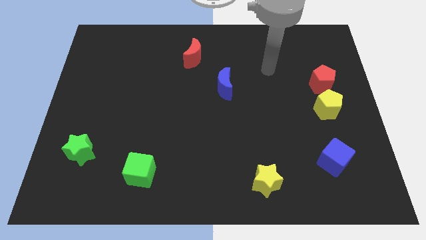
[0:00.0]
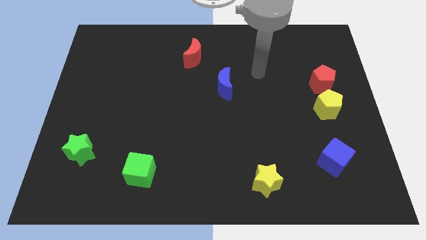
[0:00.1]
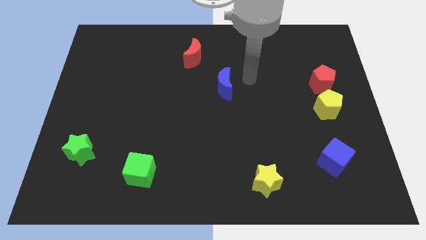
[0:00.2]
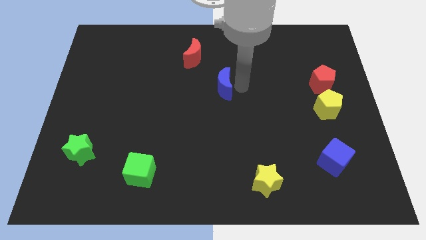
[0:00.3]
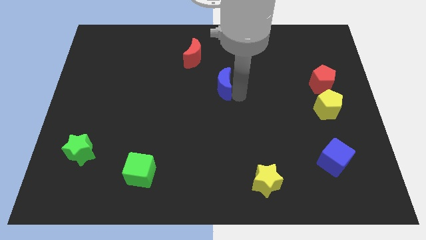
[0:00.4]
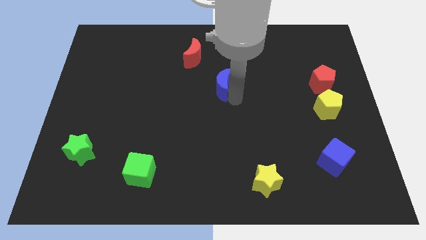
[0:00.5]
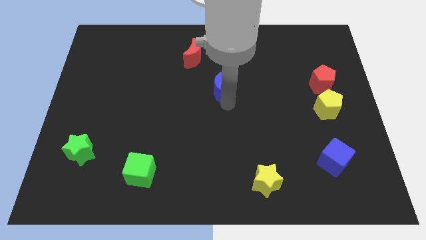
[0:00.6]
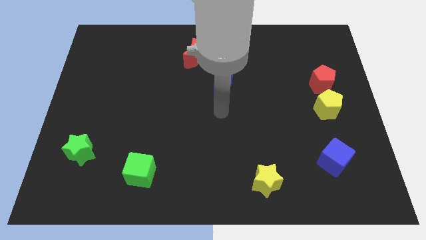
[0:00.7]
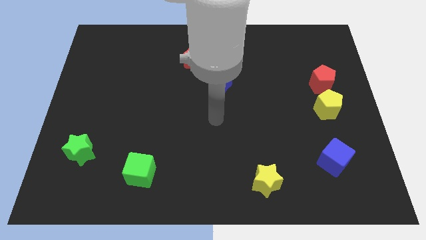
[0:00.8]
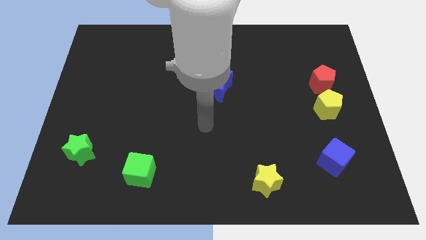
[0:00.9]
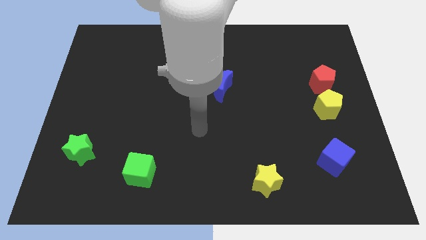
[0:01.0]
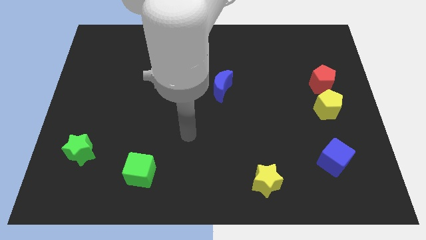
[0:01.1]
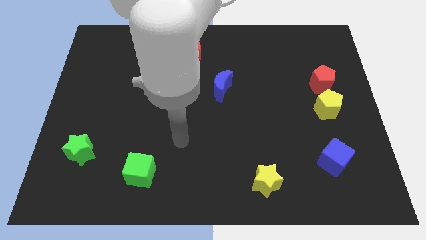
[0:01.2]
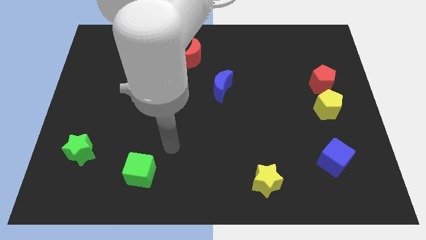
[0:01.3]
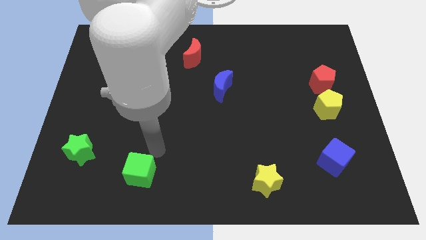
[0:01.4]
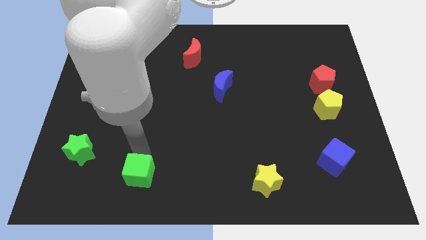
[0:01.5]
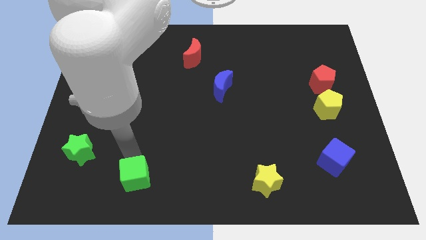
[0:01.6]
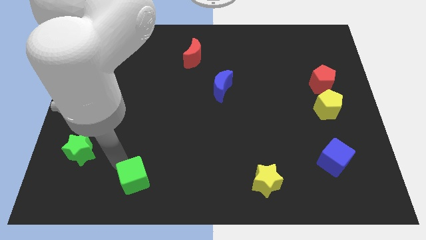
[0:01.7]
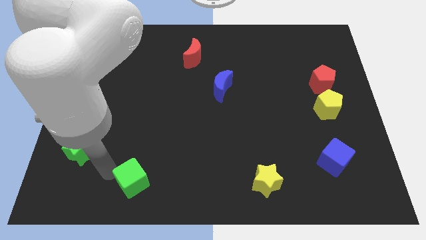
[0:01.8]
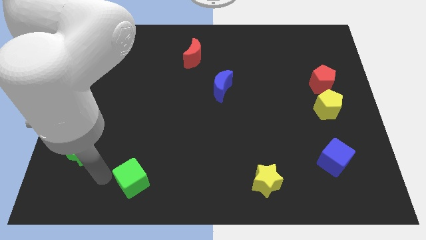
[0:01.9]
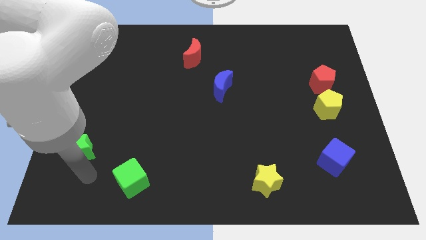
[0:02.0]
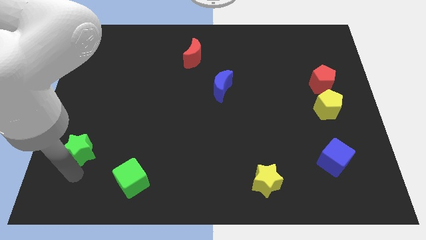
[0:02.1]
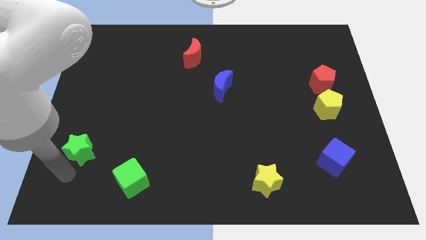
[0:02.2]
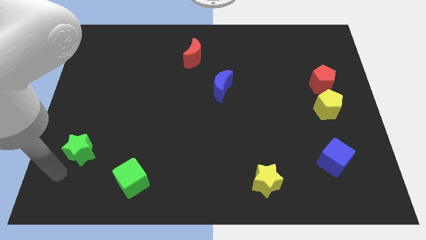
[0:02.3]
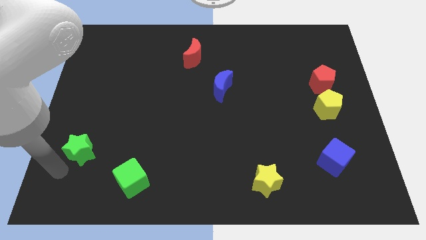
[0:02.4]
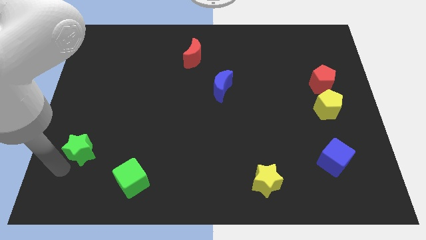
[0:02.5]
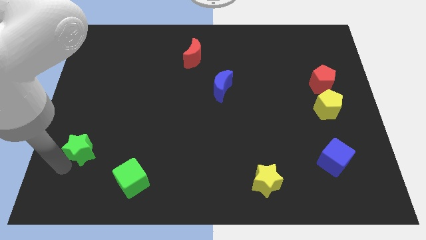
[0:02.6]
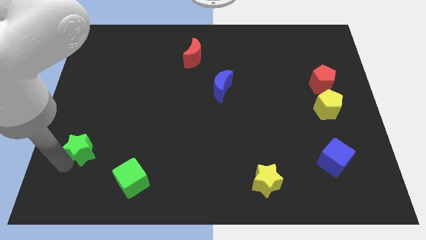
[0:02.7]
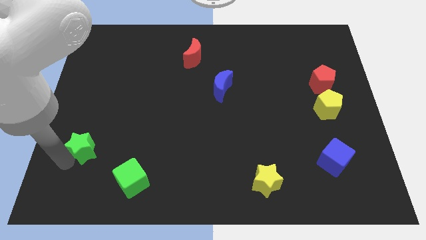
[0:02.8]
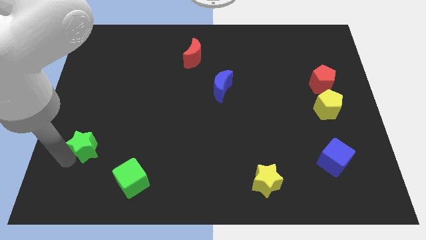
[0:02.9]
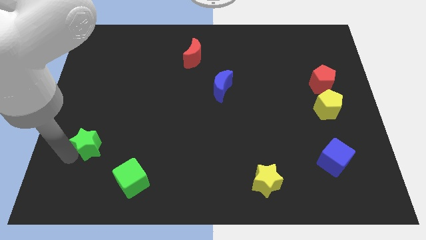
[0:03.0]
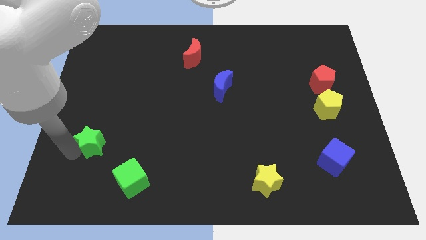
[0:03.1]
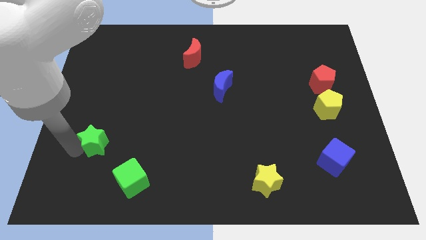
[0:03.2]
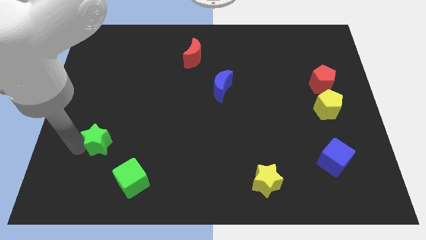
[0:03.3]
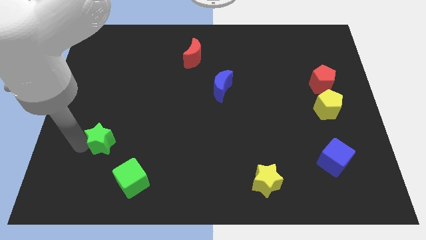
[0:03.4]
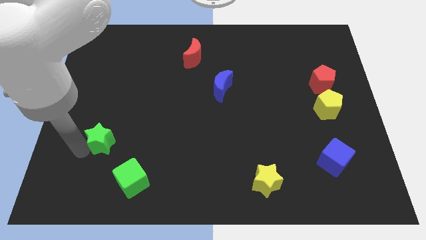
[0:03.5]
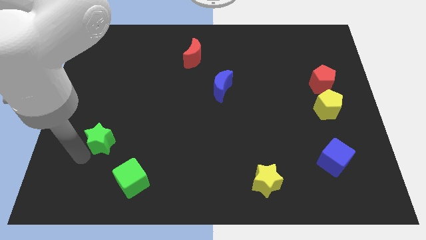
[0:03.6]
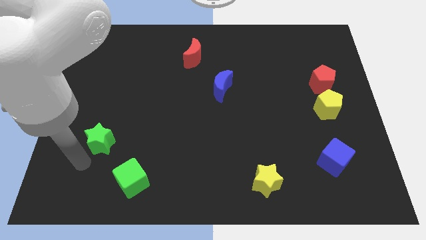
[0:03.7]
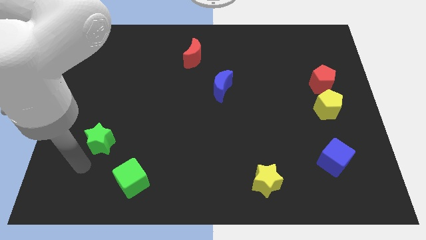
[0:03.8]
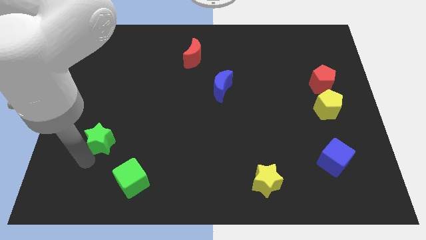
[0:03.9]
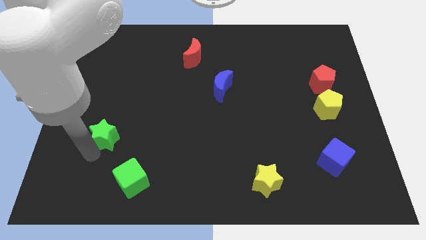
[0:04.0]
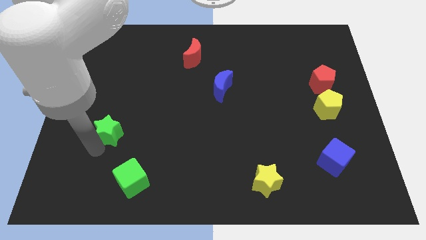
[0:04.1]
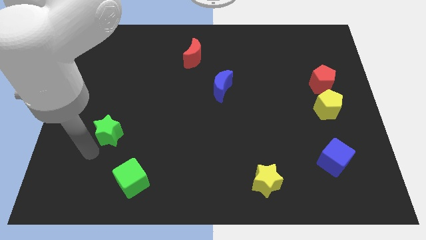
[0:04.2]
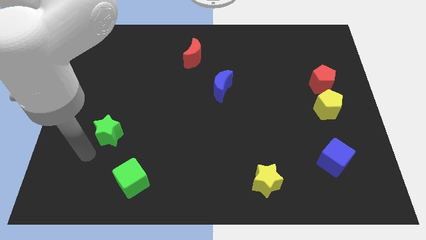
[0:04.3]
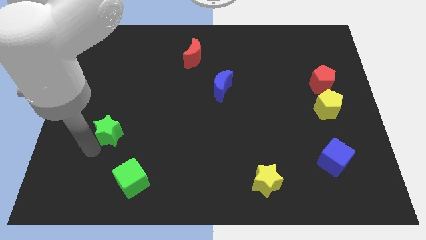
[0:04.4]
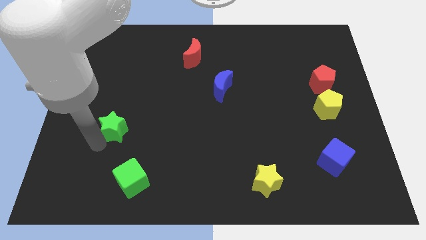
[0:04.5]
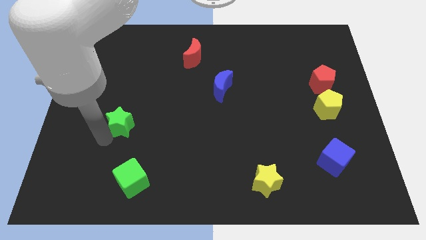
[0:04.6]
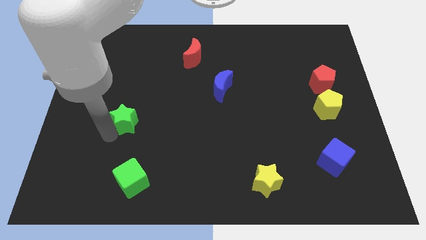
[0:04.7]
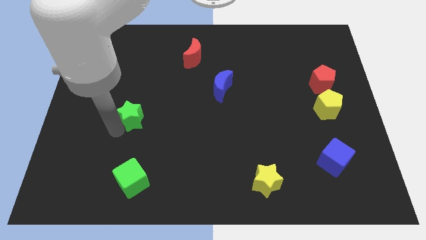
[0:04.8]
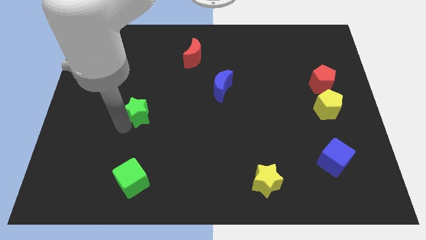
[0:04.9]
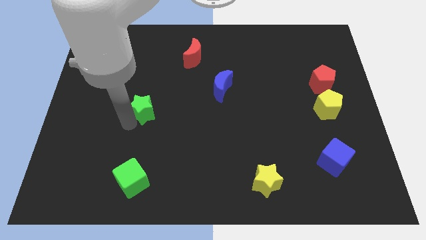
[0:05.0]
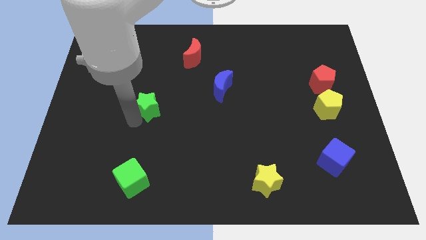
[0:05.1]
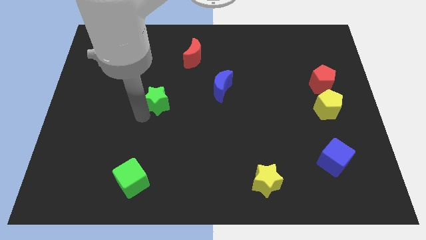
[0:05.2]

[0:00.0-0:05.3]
push the green star up and to the right

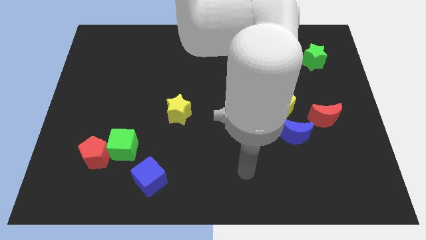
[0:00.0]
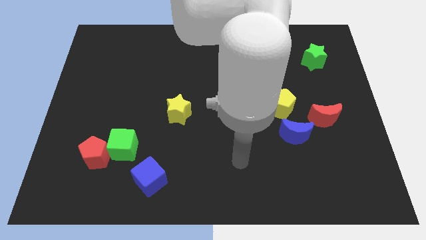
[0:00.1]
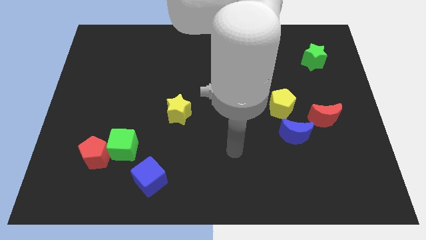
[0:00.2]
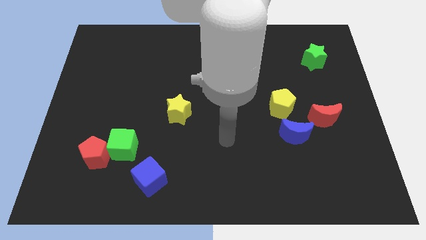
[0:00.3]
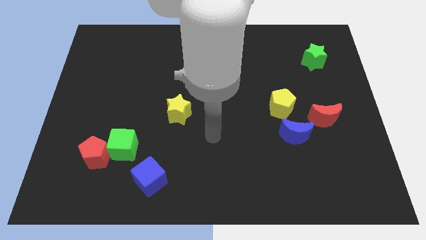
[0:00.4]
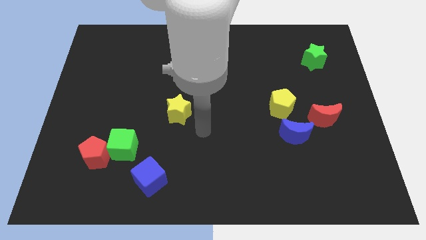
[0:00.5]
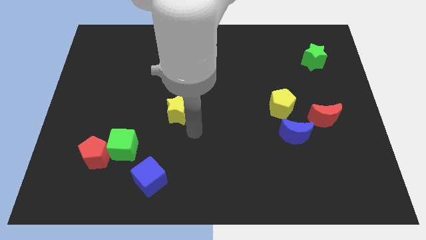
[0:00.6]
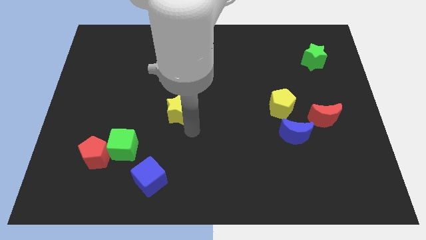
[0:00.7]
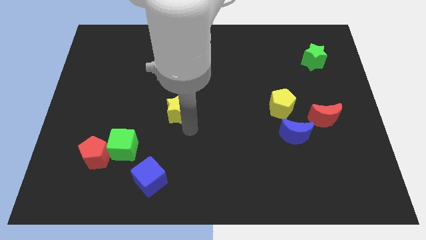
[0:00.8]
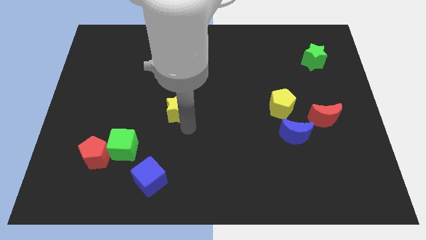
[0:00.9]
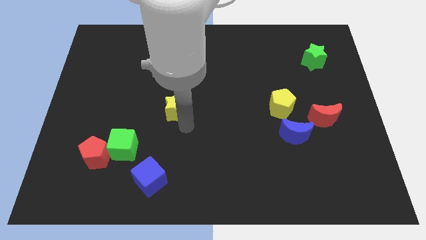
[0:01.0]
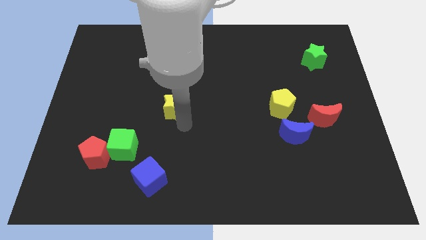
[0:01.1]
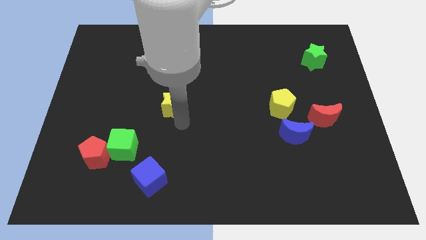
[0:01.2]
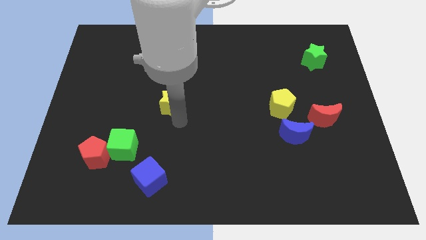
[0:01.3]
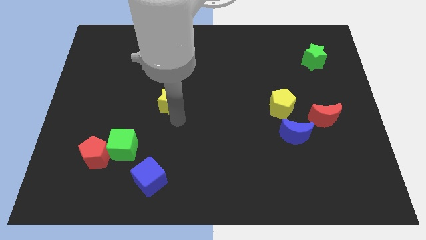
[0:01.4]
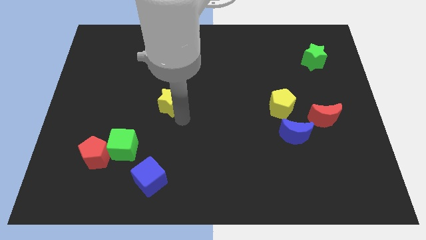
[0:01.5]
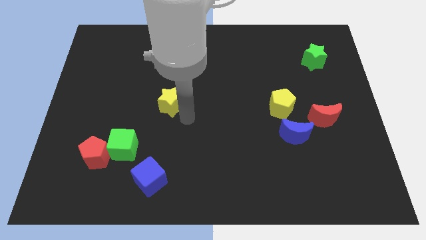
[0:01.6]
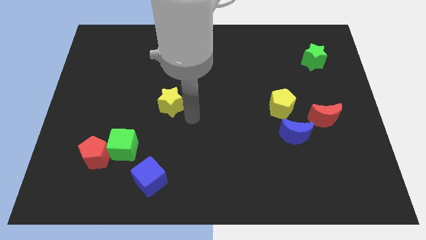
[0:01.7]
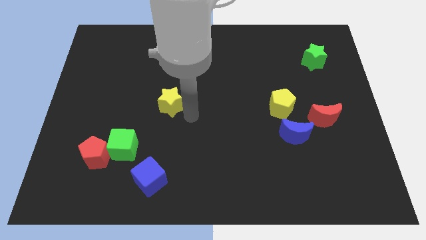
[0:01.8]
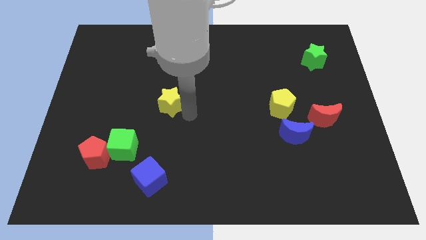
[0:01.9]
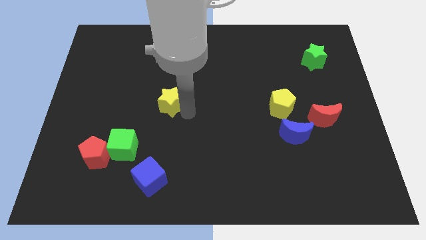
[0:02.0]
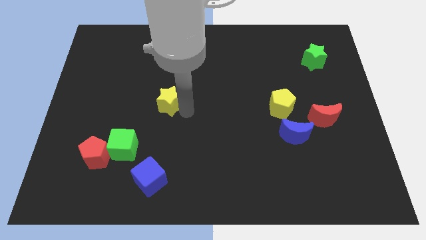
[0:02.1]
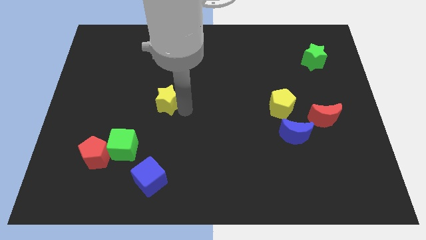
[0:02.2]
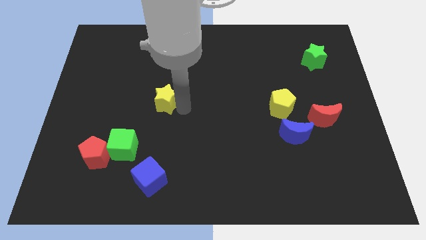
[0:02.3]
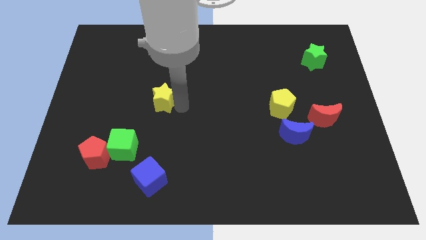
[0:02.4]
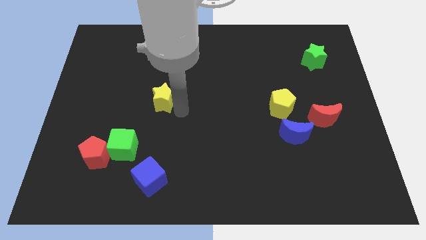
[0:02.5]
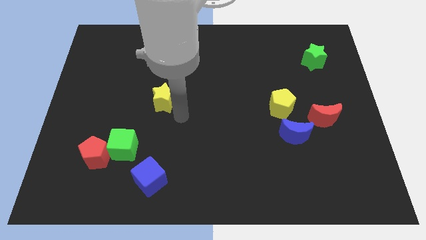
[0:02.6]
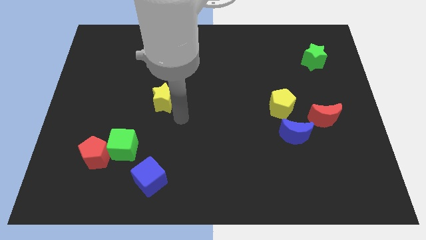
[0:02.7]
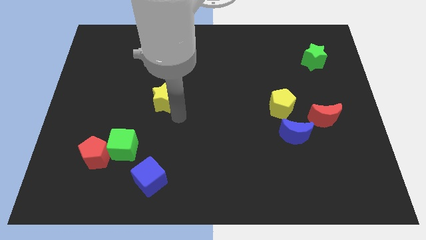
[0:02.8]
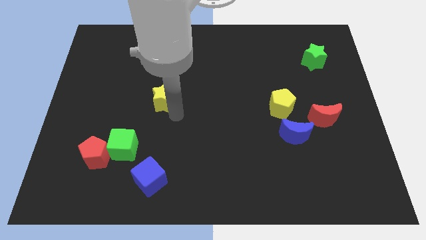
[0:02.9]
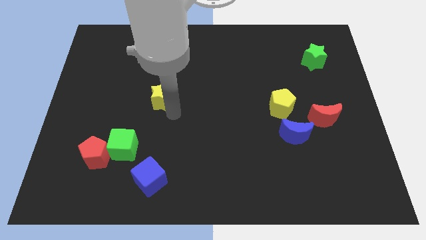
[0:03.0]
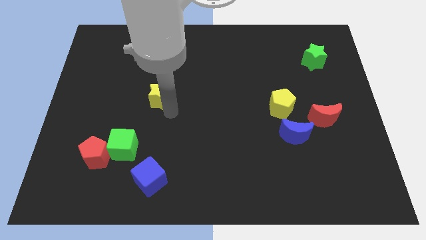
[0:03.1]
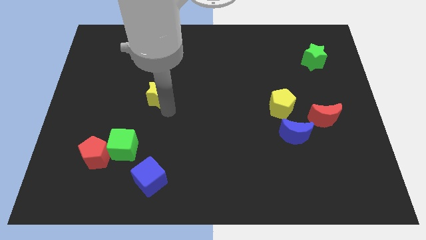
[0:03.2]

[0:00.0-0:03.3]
slide the yellow star upwards and to the left diagonally slightly
